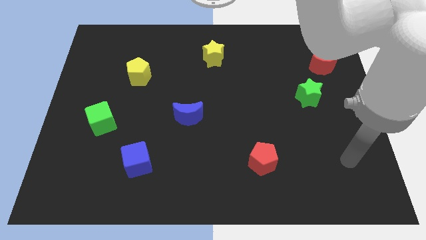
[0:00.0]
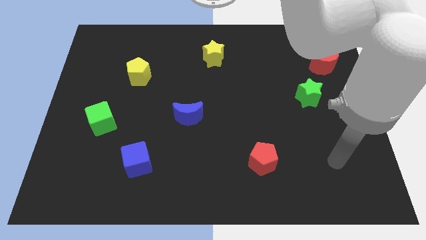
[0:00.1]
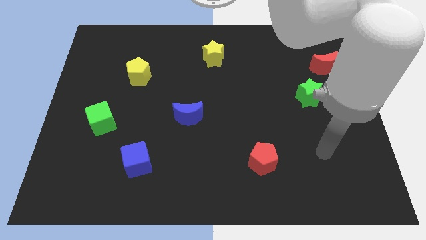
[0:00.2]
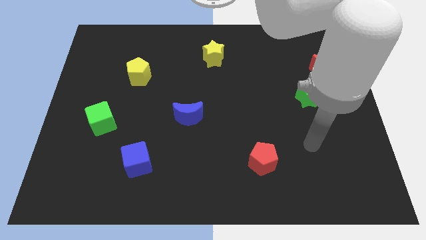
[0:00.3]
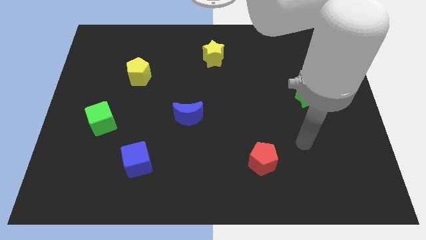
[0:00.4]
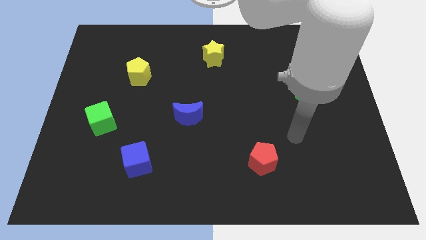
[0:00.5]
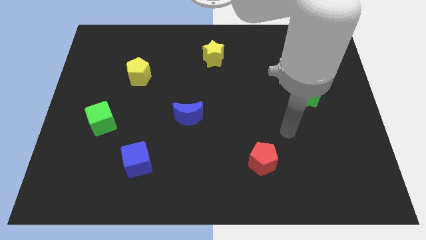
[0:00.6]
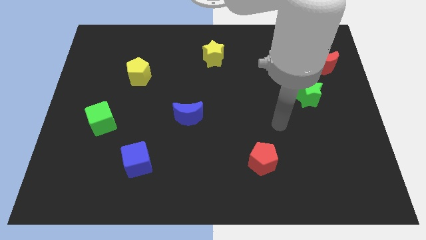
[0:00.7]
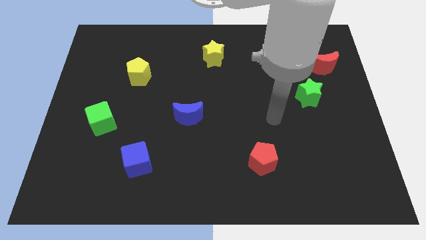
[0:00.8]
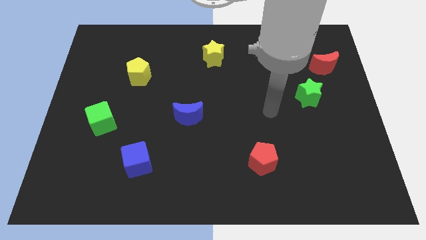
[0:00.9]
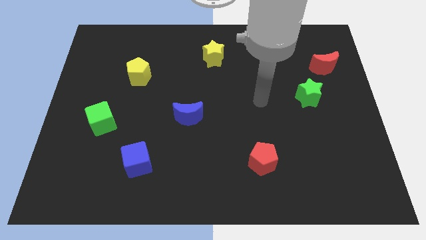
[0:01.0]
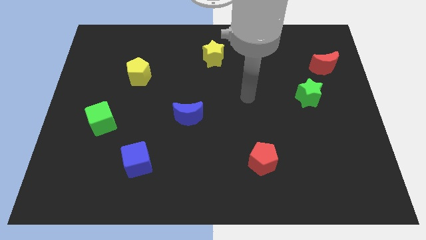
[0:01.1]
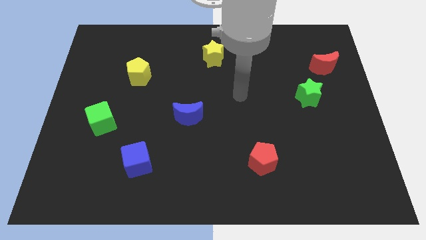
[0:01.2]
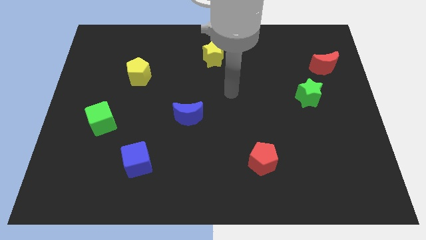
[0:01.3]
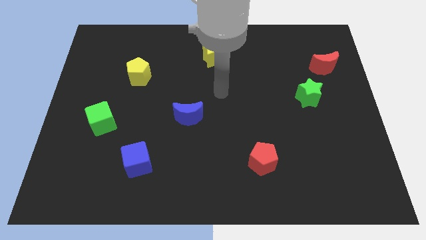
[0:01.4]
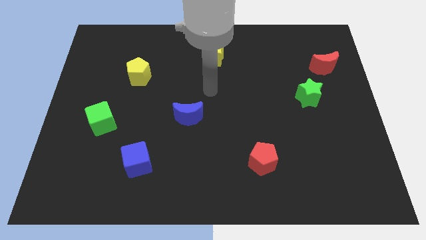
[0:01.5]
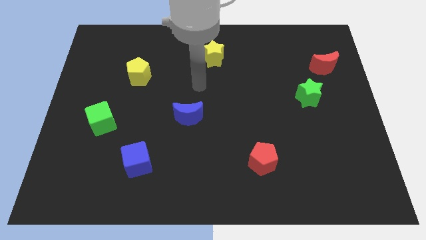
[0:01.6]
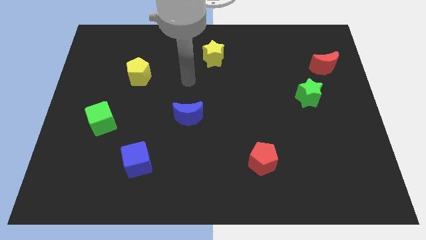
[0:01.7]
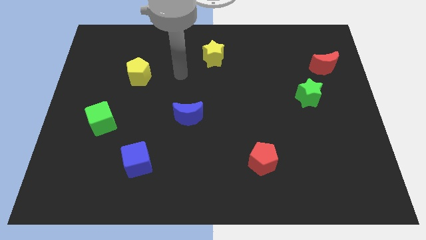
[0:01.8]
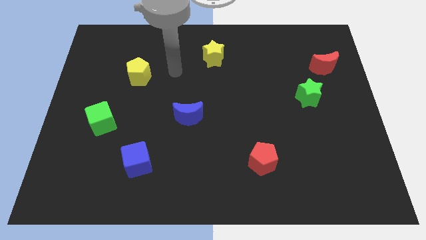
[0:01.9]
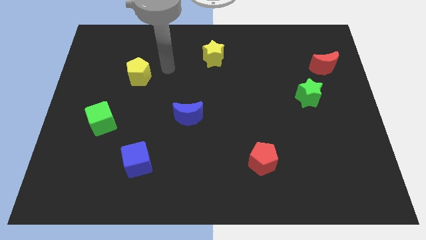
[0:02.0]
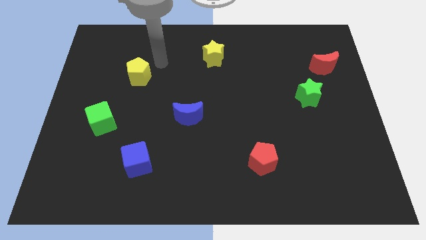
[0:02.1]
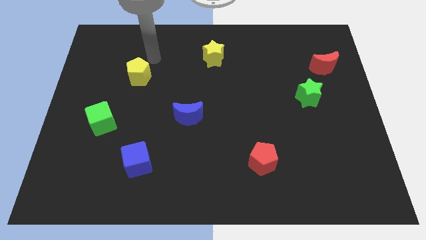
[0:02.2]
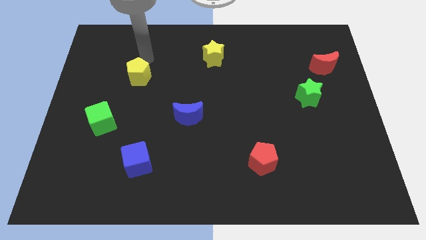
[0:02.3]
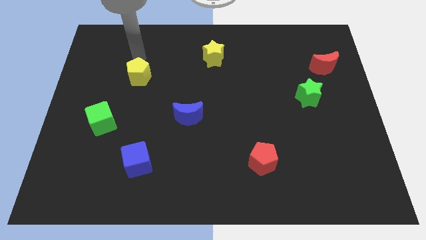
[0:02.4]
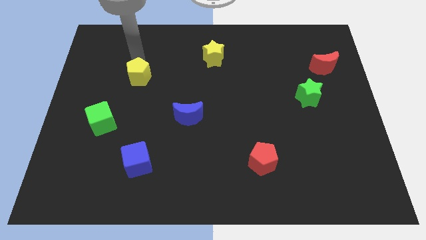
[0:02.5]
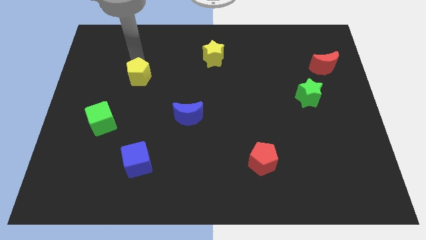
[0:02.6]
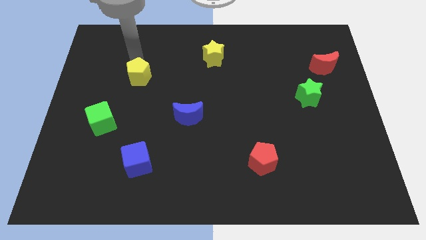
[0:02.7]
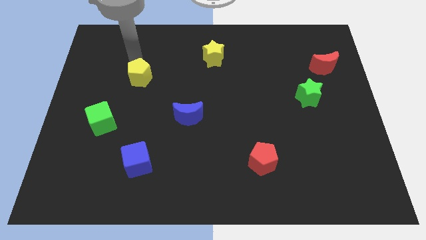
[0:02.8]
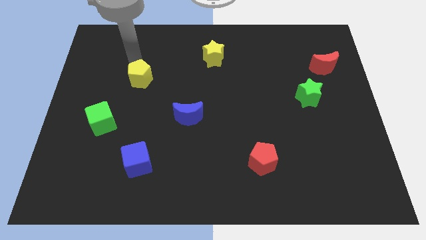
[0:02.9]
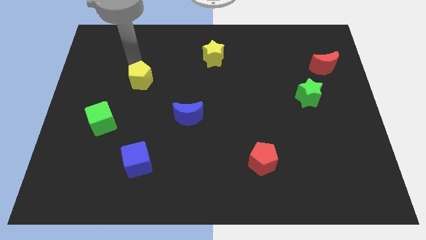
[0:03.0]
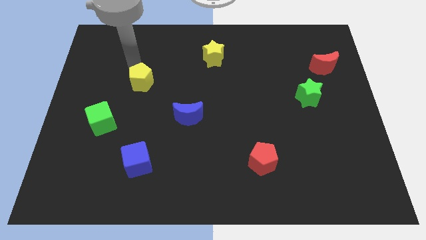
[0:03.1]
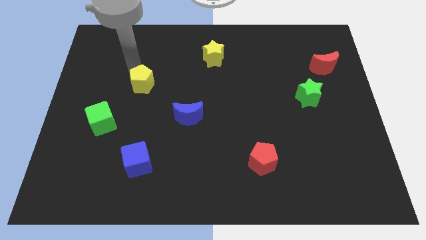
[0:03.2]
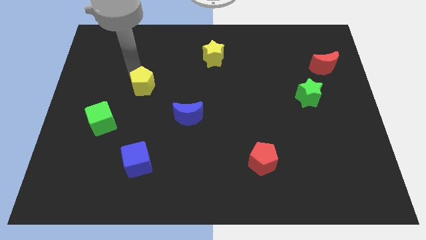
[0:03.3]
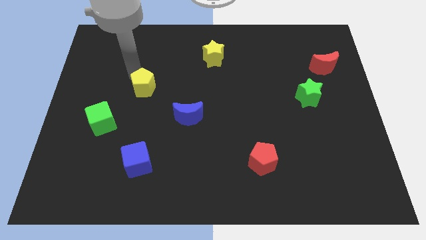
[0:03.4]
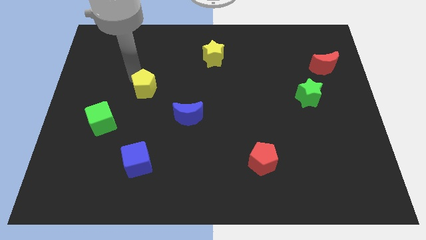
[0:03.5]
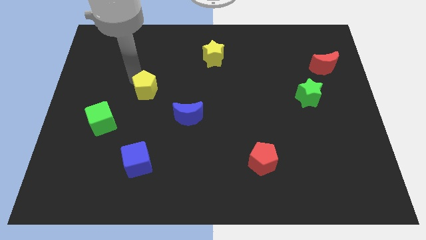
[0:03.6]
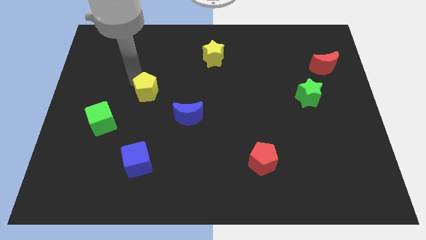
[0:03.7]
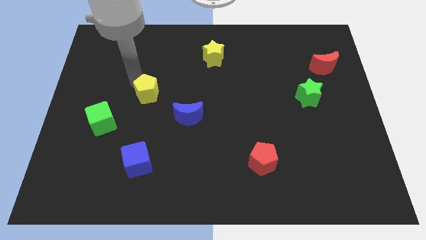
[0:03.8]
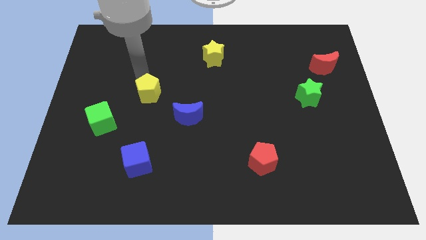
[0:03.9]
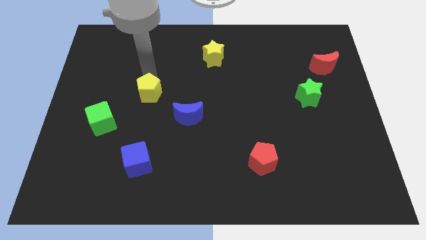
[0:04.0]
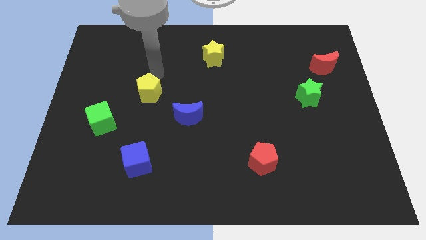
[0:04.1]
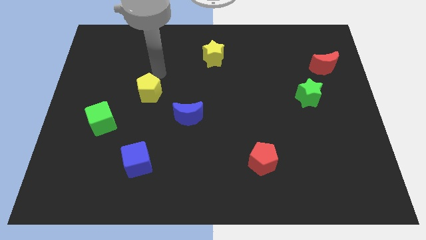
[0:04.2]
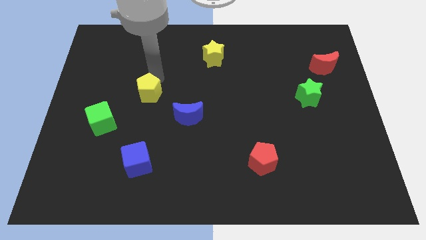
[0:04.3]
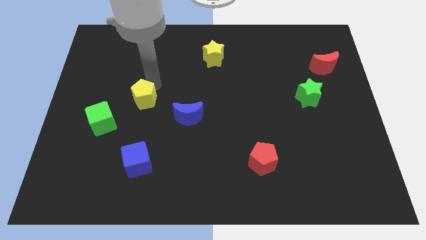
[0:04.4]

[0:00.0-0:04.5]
slightly push the yellow pentagon downwards

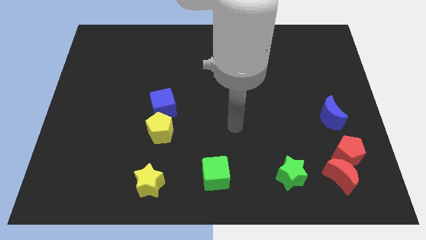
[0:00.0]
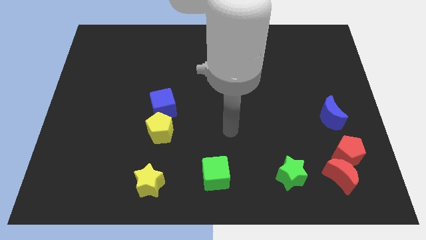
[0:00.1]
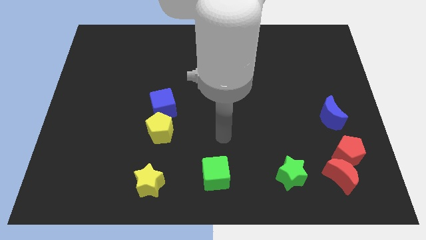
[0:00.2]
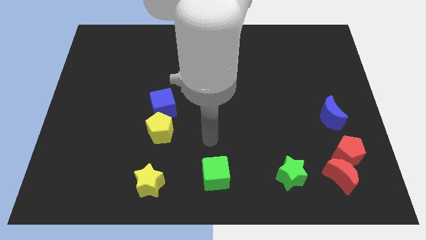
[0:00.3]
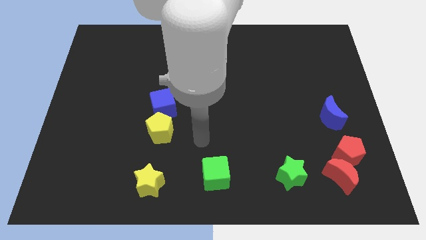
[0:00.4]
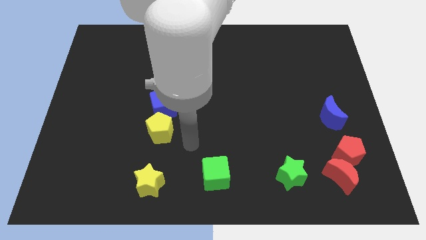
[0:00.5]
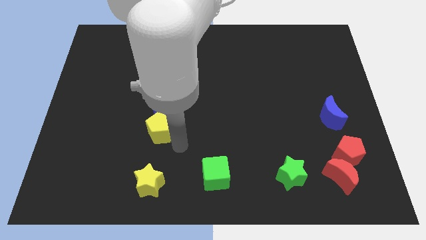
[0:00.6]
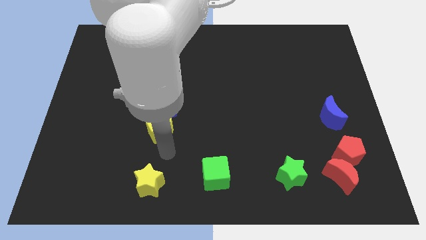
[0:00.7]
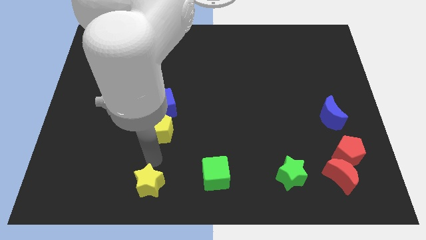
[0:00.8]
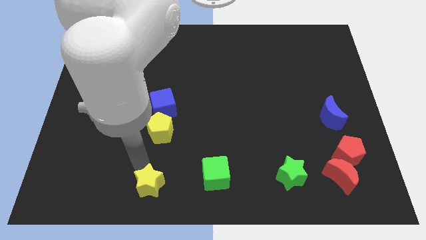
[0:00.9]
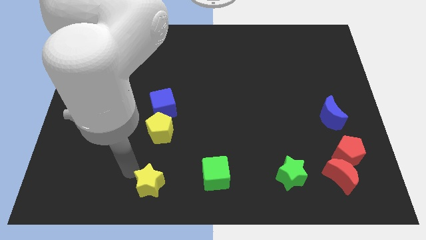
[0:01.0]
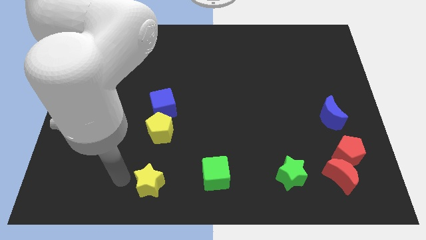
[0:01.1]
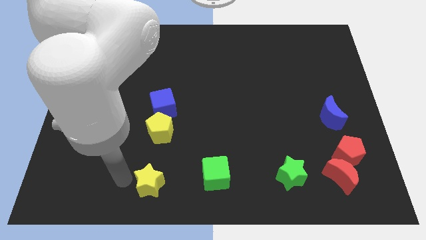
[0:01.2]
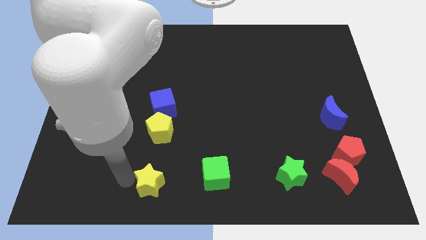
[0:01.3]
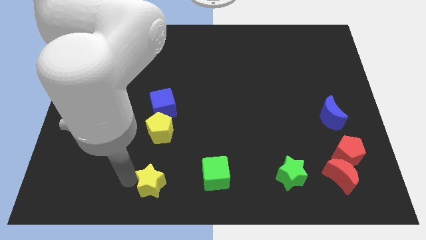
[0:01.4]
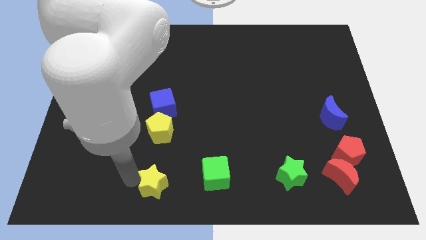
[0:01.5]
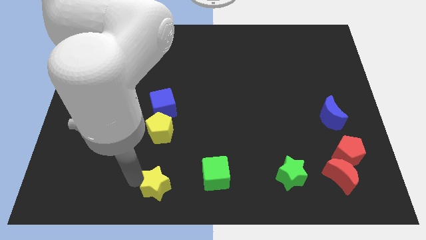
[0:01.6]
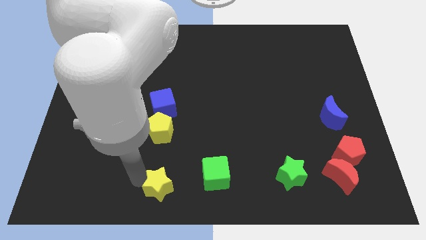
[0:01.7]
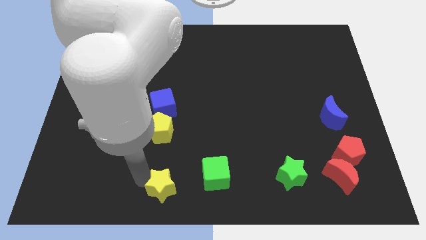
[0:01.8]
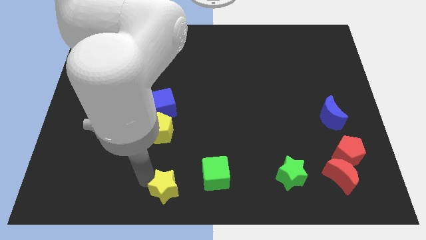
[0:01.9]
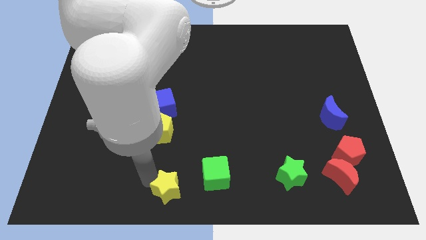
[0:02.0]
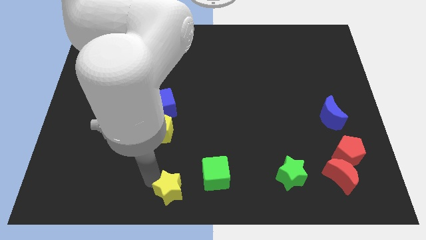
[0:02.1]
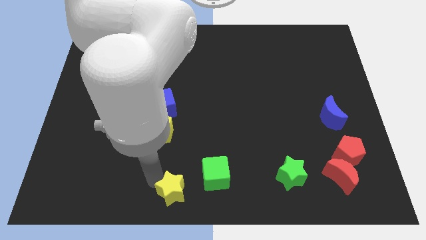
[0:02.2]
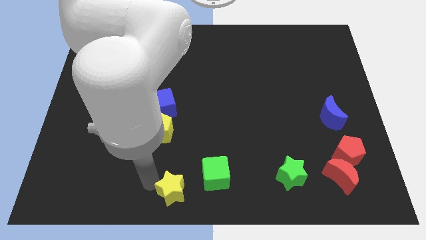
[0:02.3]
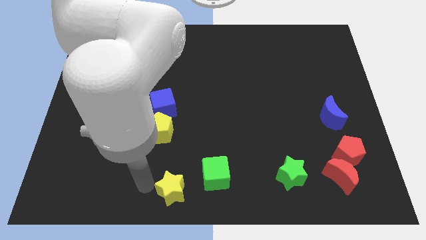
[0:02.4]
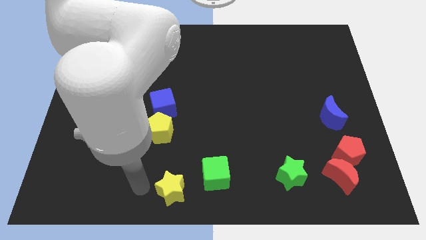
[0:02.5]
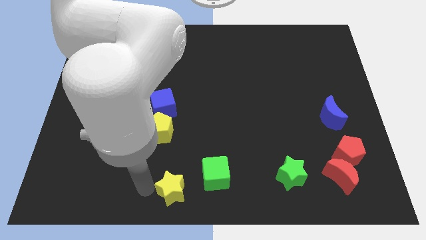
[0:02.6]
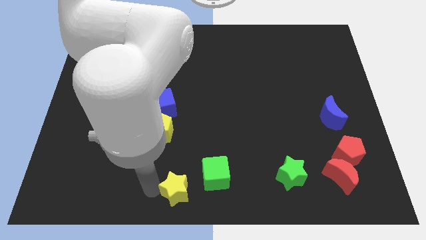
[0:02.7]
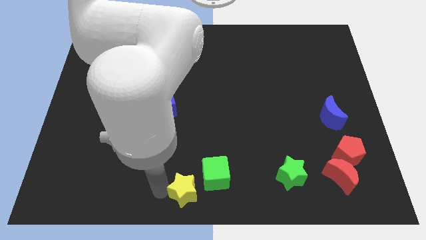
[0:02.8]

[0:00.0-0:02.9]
move the yellow star a bit right

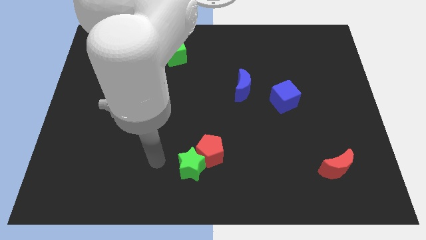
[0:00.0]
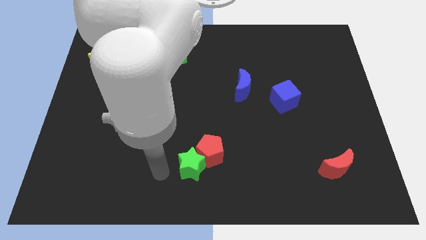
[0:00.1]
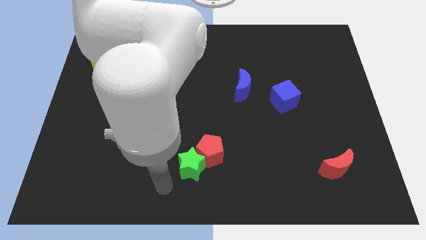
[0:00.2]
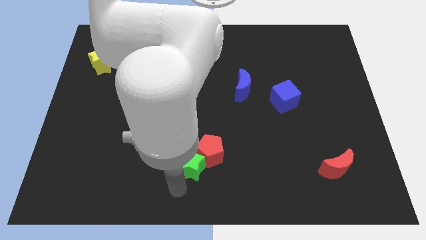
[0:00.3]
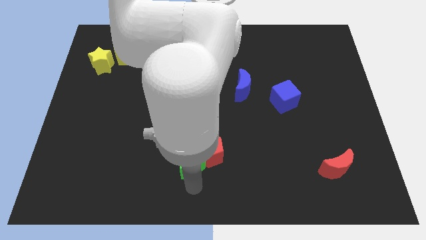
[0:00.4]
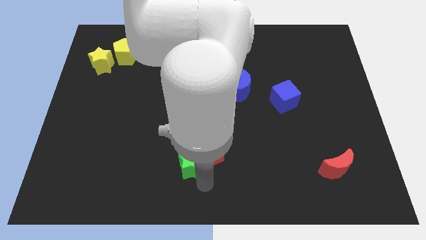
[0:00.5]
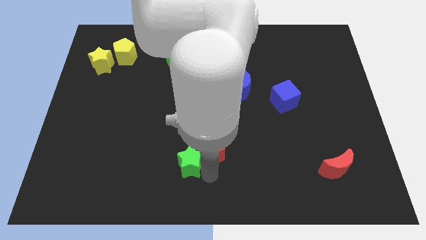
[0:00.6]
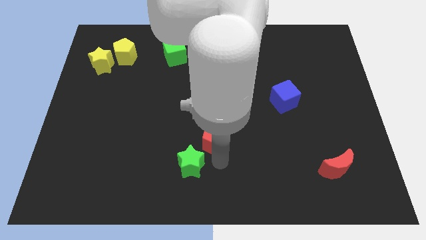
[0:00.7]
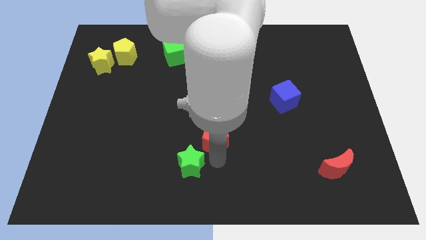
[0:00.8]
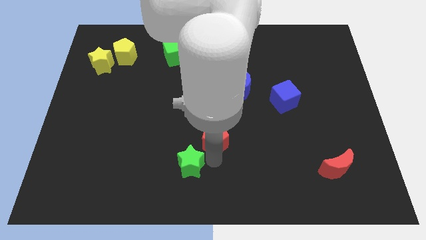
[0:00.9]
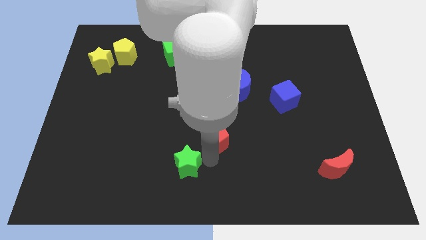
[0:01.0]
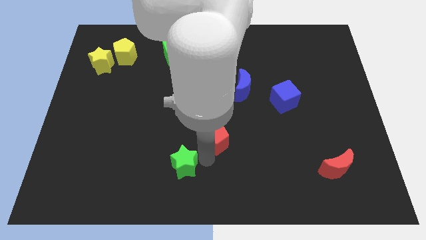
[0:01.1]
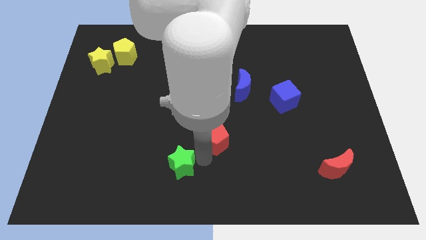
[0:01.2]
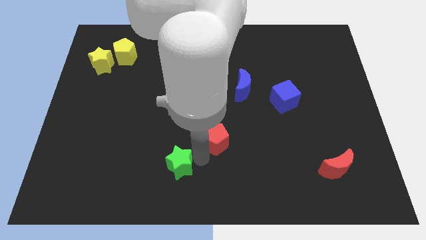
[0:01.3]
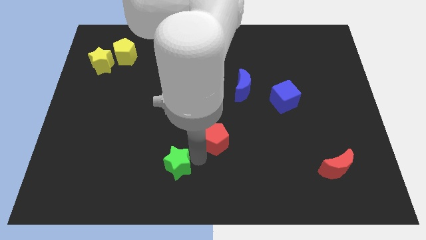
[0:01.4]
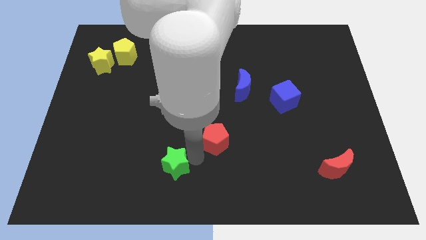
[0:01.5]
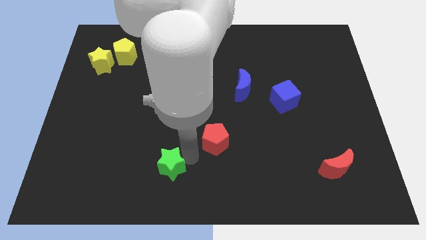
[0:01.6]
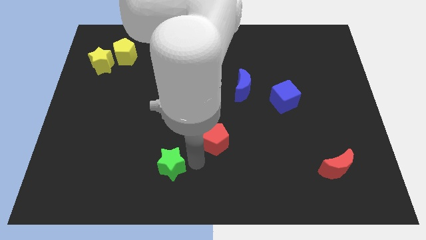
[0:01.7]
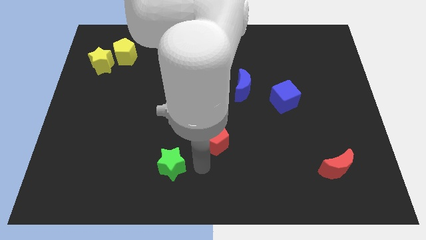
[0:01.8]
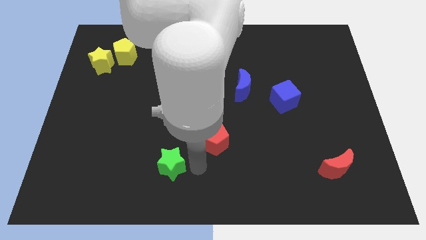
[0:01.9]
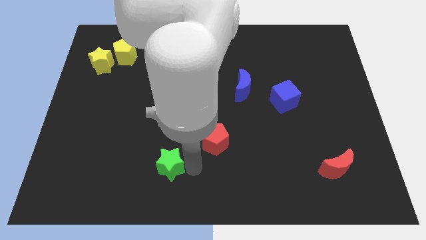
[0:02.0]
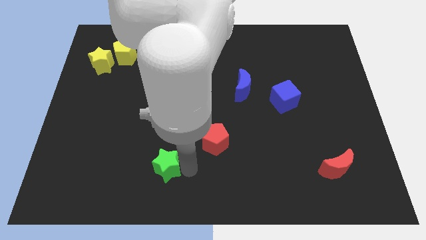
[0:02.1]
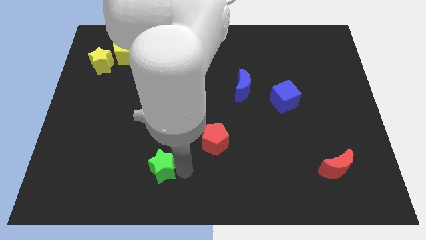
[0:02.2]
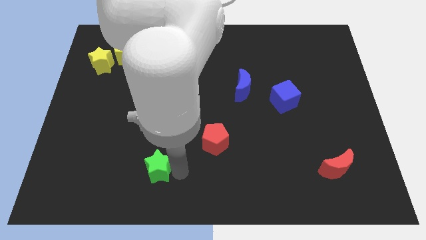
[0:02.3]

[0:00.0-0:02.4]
move the green star a little bit left
